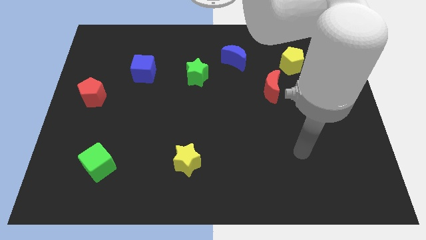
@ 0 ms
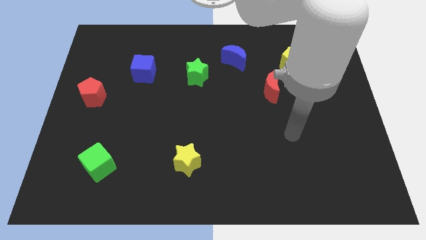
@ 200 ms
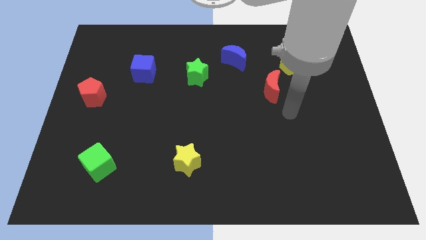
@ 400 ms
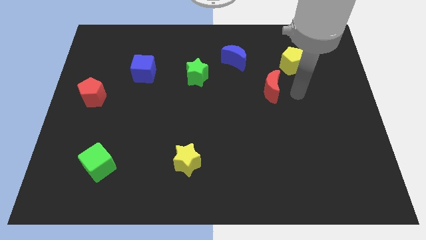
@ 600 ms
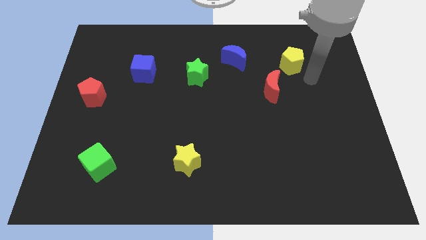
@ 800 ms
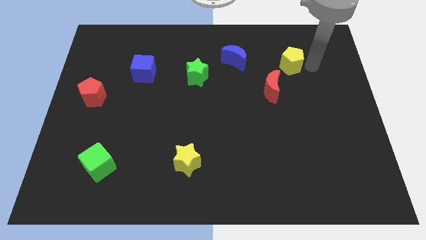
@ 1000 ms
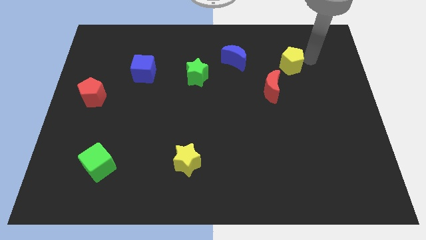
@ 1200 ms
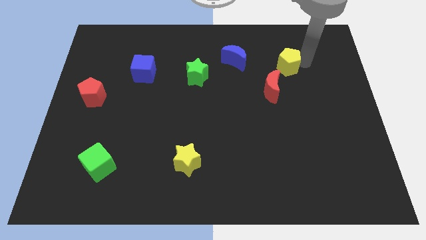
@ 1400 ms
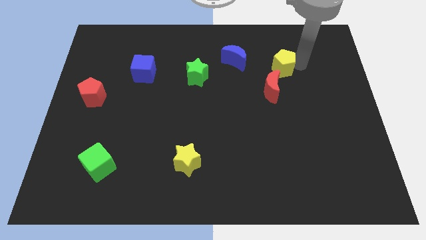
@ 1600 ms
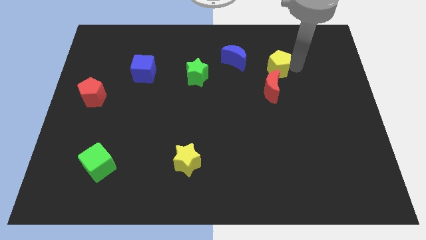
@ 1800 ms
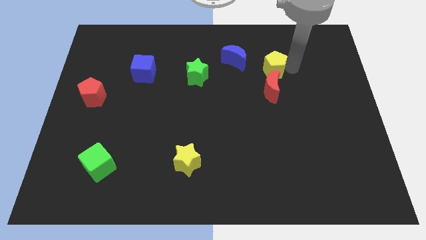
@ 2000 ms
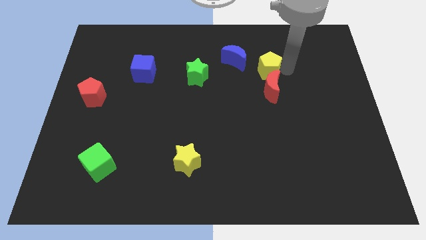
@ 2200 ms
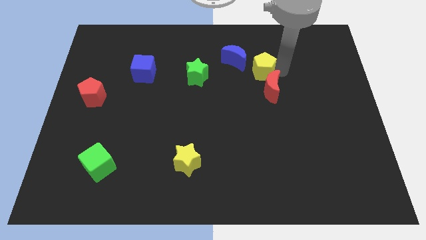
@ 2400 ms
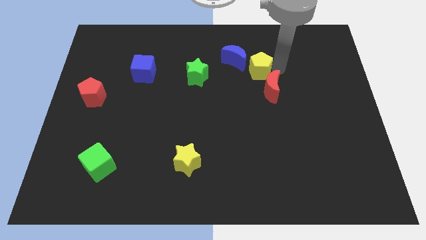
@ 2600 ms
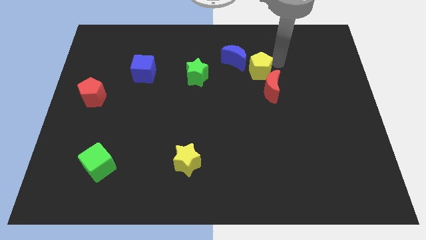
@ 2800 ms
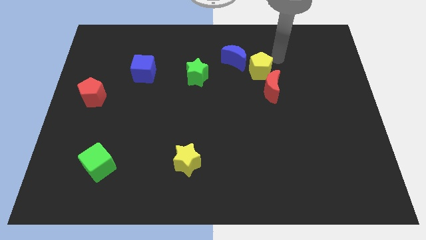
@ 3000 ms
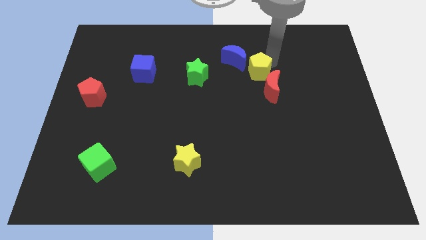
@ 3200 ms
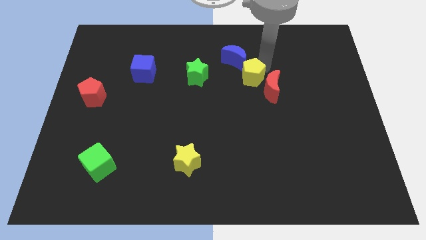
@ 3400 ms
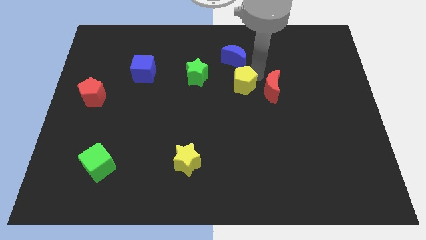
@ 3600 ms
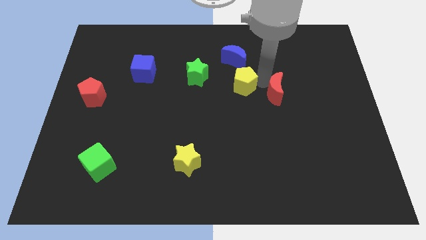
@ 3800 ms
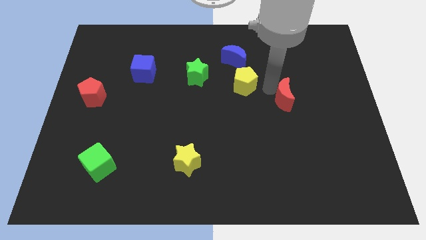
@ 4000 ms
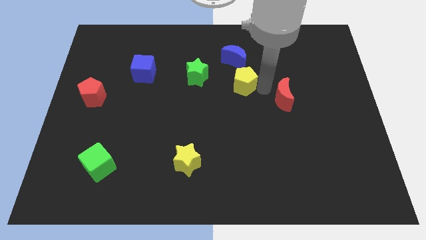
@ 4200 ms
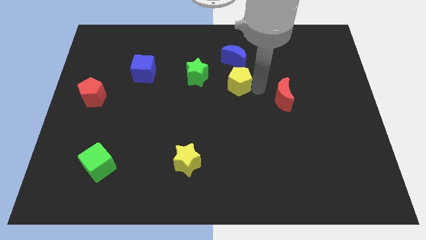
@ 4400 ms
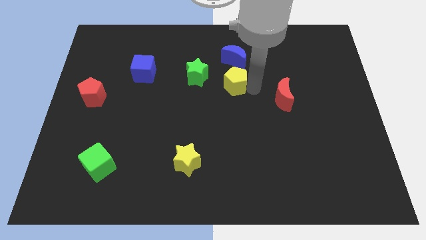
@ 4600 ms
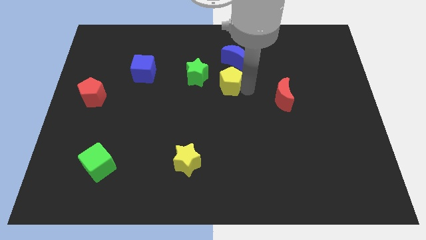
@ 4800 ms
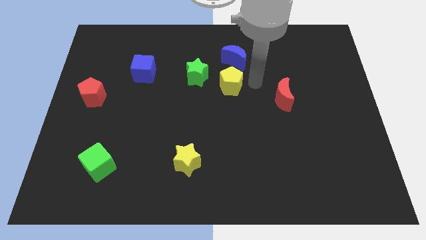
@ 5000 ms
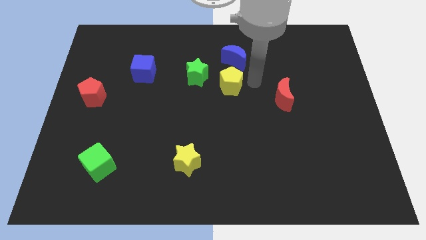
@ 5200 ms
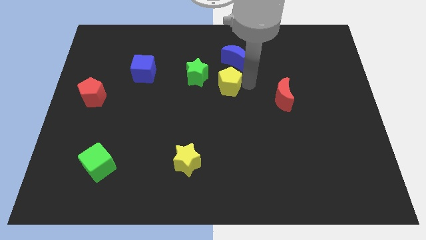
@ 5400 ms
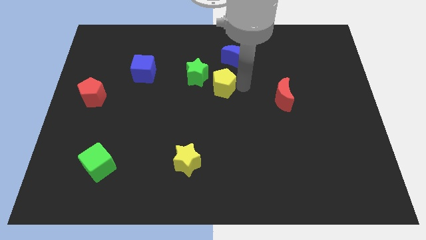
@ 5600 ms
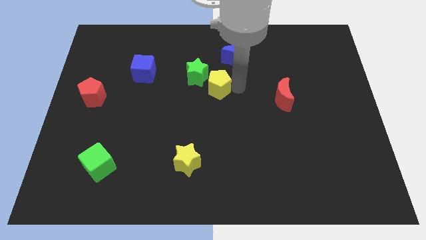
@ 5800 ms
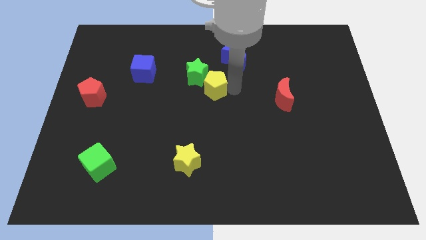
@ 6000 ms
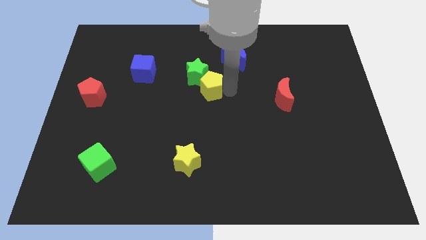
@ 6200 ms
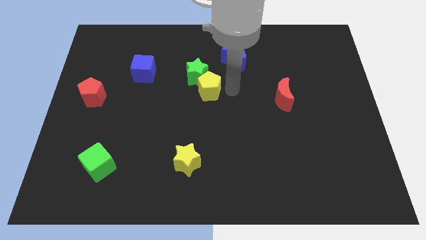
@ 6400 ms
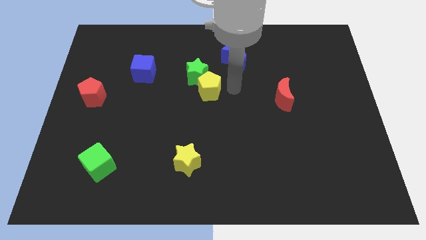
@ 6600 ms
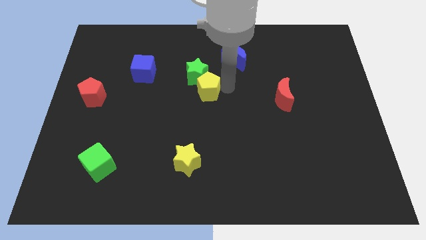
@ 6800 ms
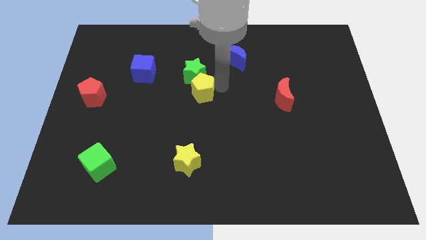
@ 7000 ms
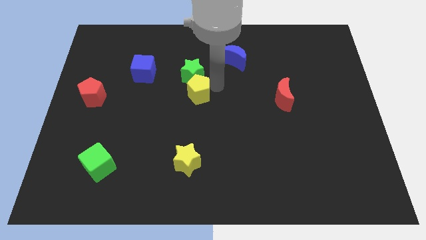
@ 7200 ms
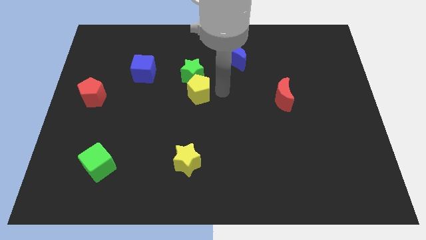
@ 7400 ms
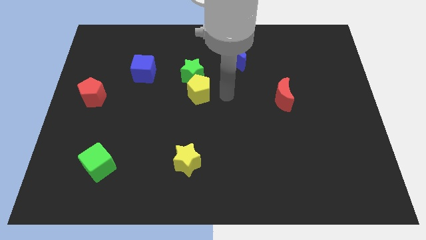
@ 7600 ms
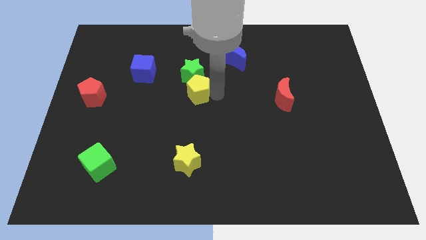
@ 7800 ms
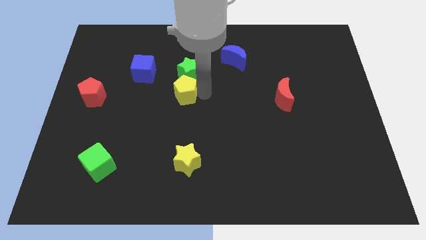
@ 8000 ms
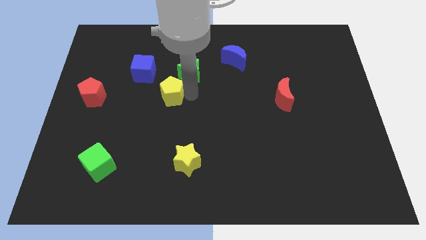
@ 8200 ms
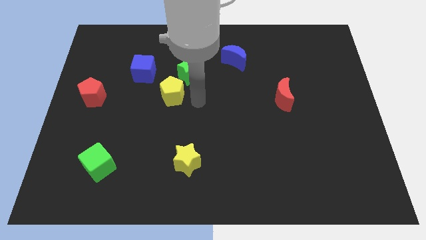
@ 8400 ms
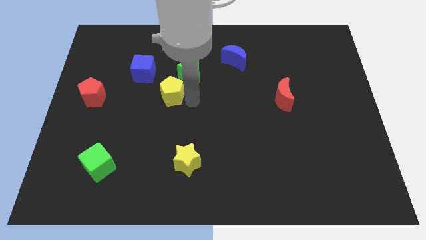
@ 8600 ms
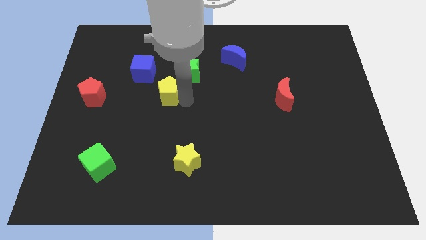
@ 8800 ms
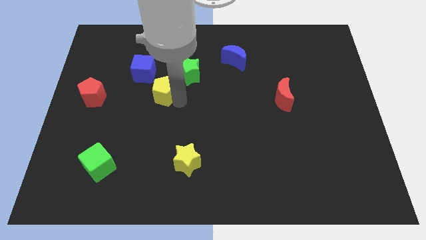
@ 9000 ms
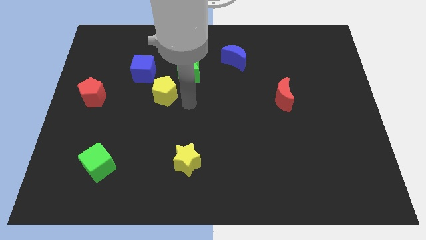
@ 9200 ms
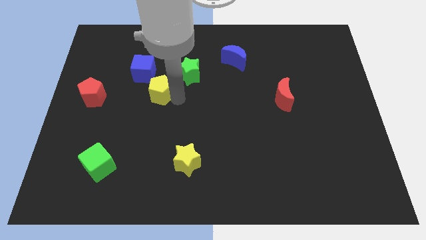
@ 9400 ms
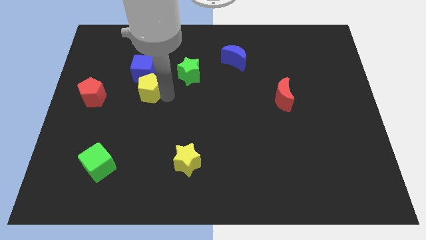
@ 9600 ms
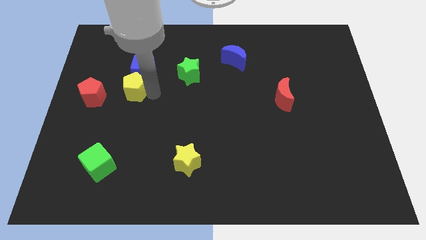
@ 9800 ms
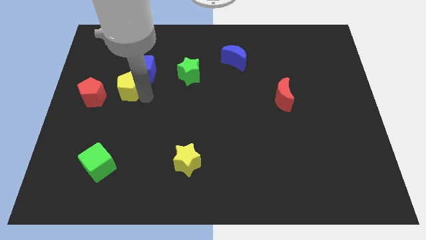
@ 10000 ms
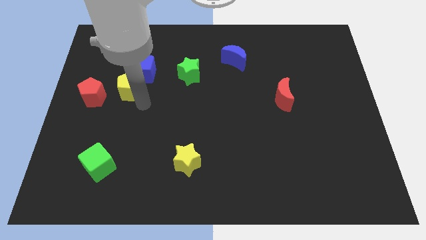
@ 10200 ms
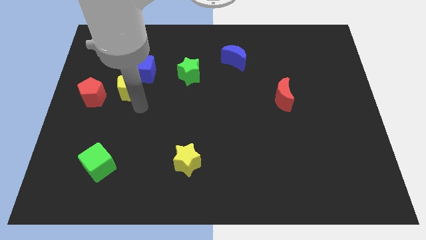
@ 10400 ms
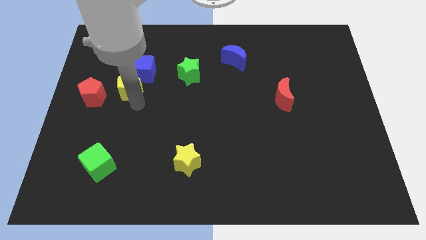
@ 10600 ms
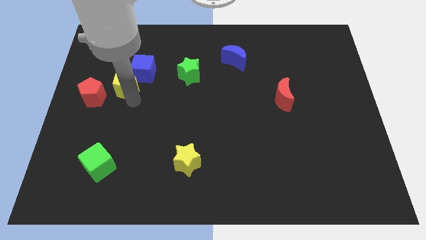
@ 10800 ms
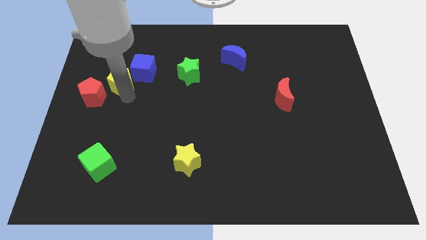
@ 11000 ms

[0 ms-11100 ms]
slide the yellow pentagon left of the blue cube

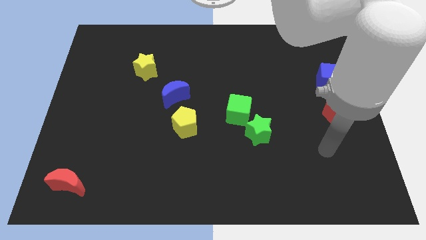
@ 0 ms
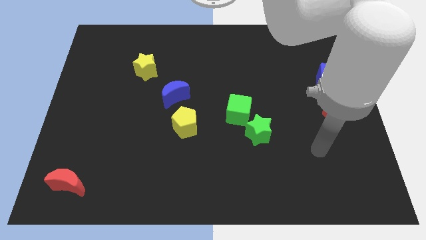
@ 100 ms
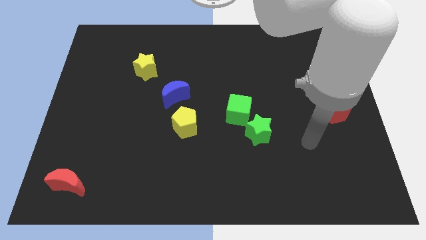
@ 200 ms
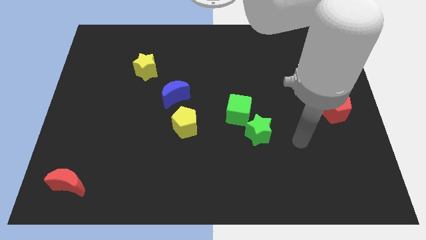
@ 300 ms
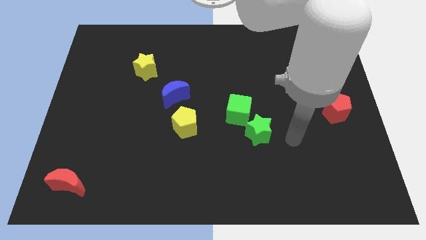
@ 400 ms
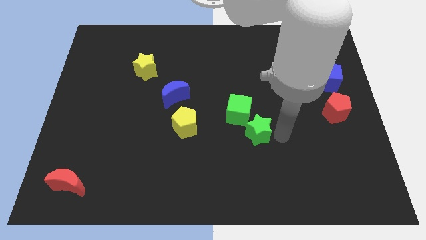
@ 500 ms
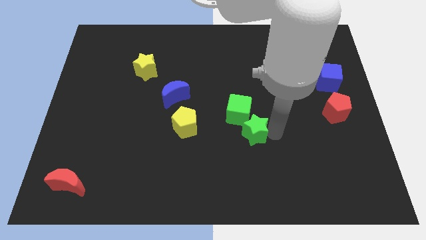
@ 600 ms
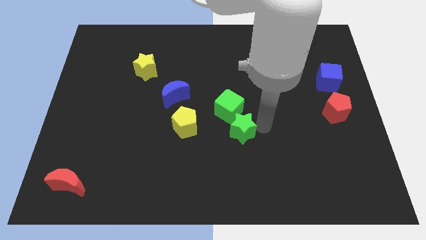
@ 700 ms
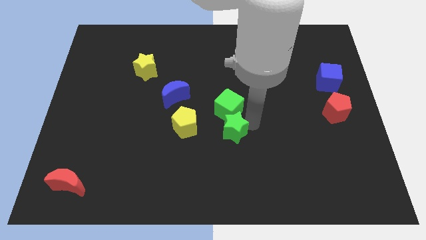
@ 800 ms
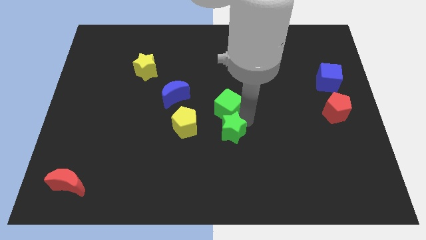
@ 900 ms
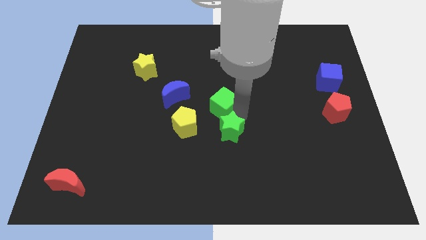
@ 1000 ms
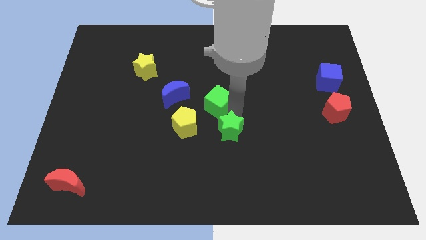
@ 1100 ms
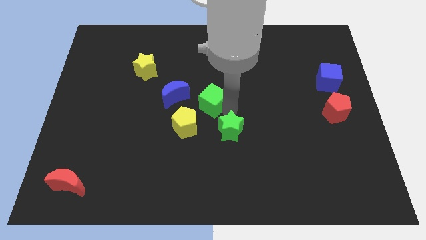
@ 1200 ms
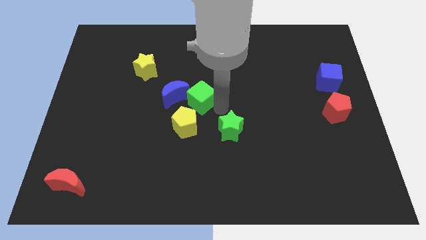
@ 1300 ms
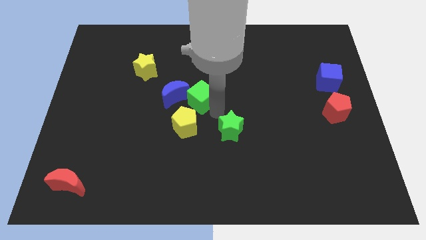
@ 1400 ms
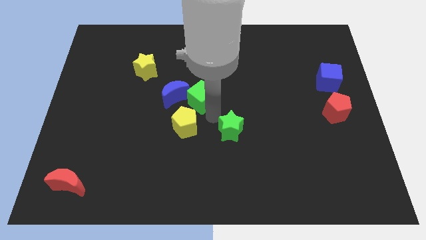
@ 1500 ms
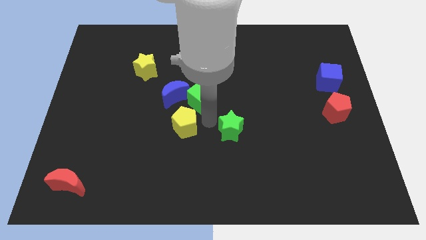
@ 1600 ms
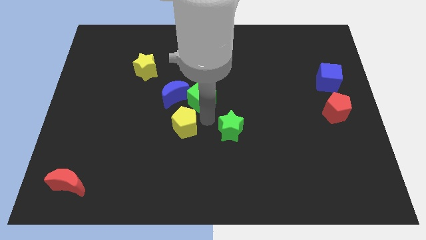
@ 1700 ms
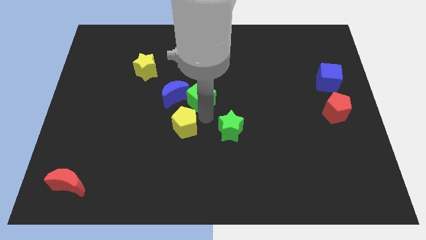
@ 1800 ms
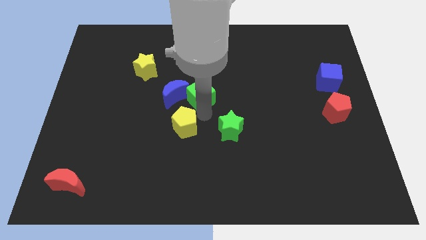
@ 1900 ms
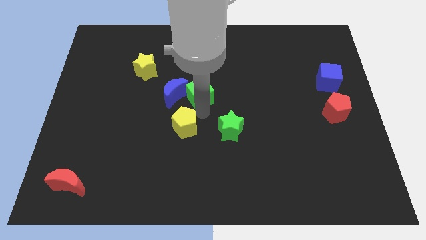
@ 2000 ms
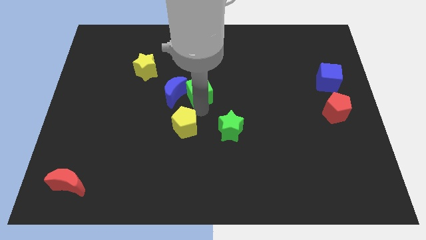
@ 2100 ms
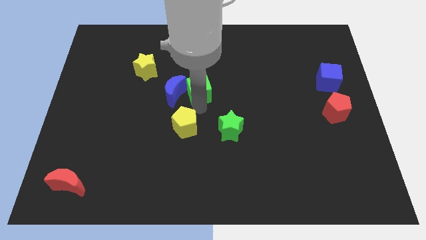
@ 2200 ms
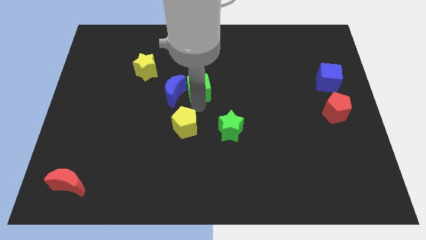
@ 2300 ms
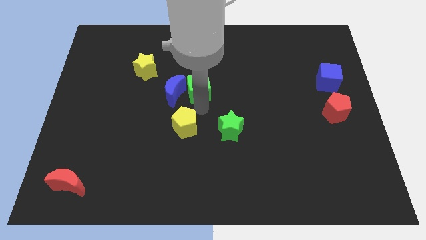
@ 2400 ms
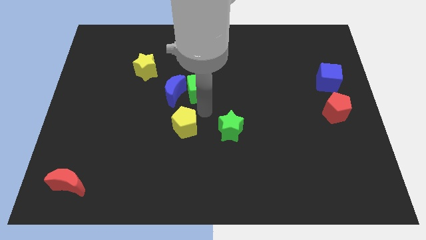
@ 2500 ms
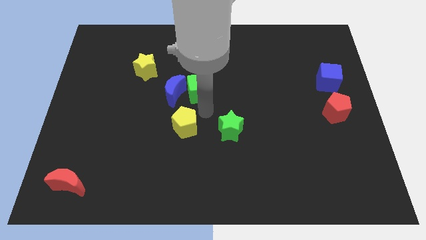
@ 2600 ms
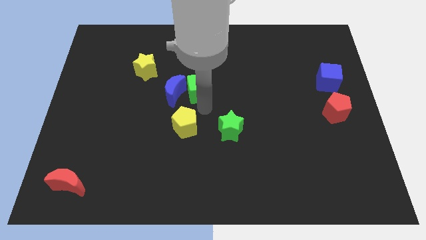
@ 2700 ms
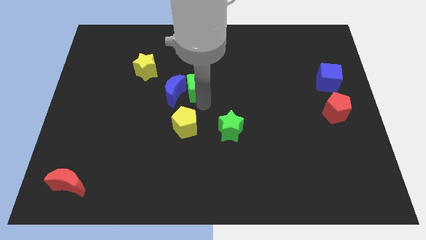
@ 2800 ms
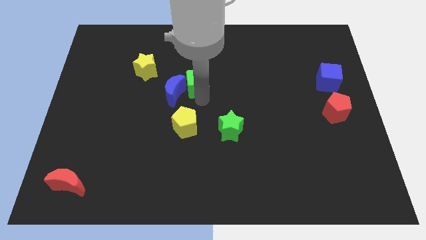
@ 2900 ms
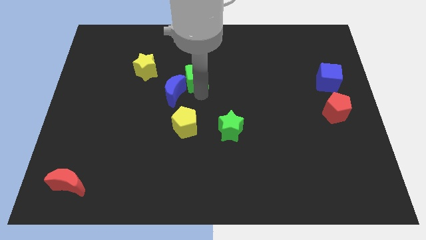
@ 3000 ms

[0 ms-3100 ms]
put the green cube right of the yellow star
